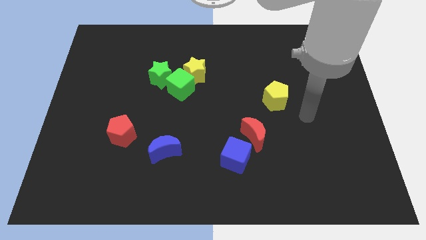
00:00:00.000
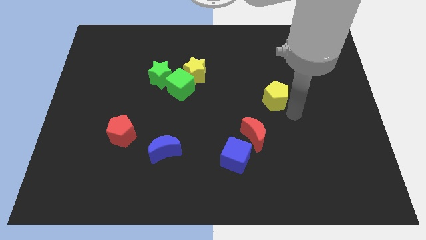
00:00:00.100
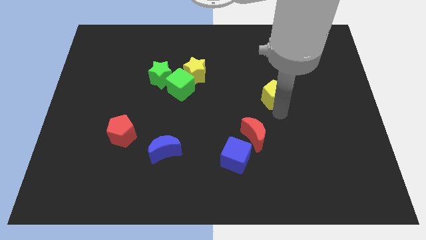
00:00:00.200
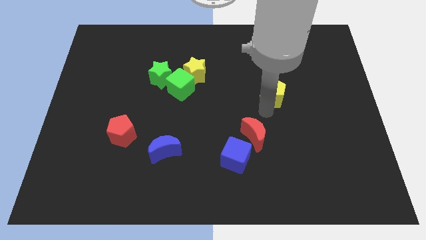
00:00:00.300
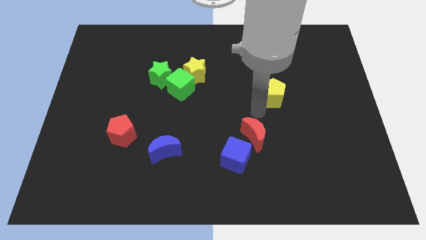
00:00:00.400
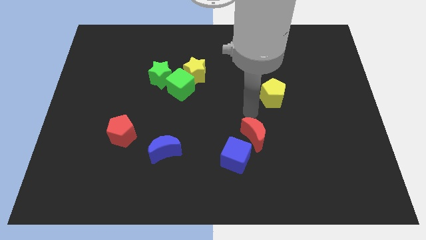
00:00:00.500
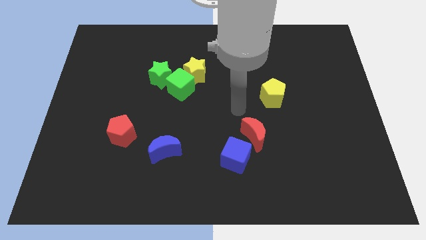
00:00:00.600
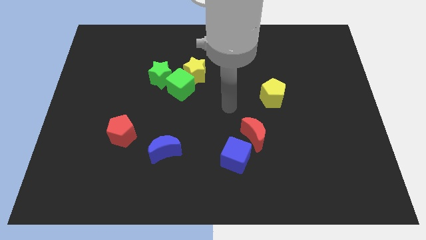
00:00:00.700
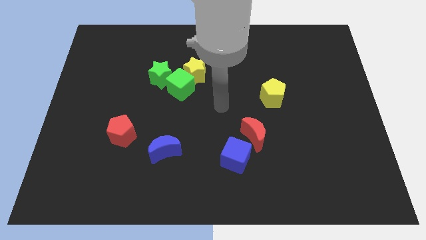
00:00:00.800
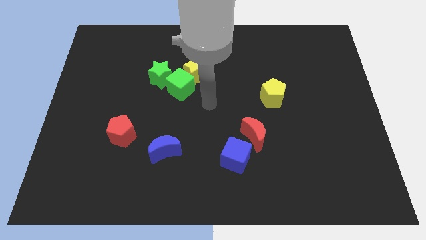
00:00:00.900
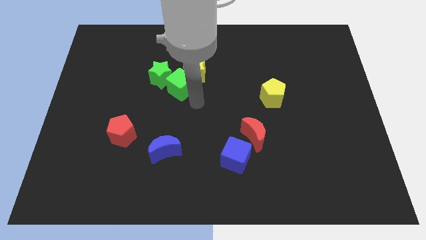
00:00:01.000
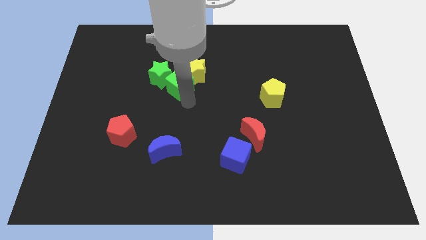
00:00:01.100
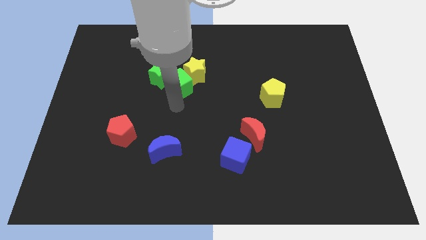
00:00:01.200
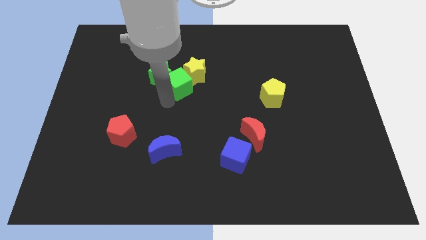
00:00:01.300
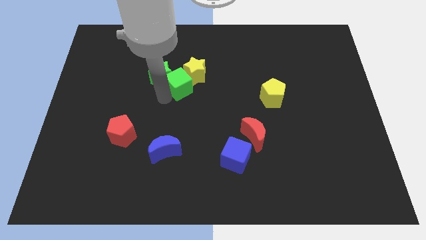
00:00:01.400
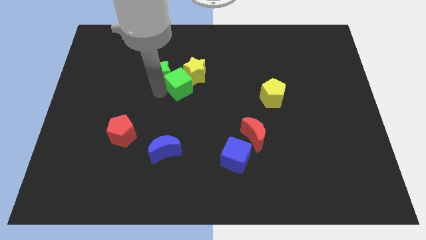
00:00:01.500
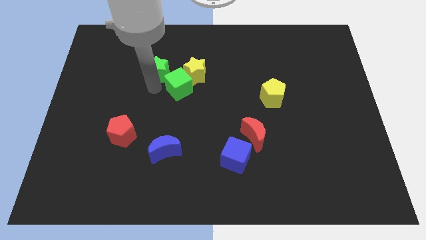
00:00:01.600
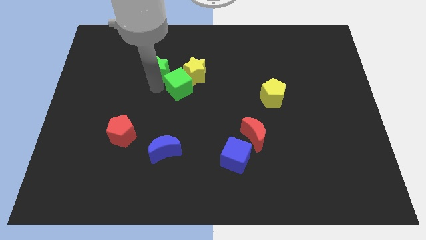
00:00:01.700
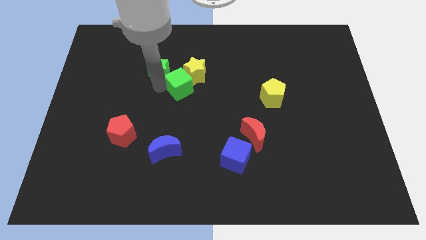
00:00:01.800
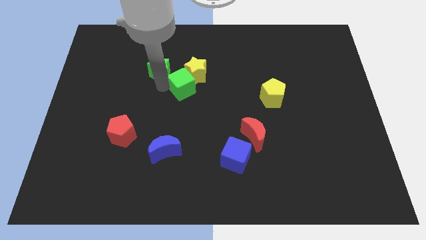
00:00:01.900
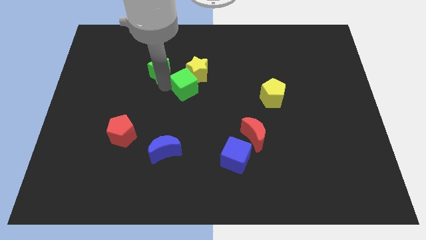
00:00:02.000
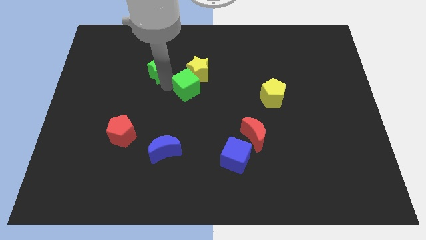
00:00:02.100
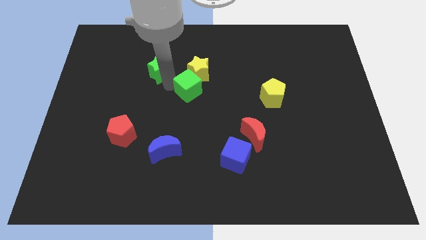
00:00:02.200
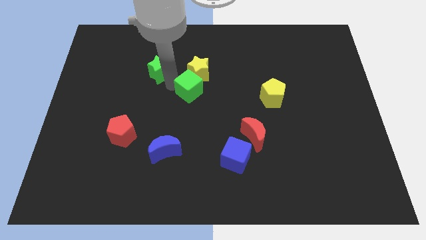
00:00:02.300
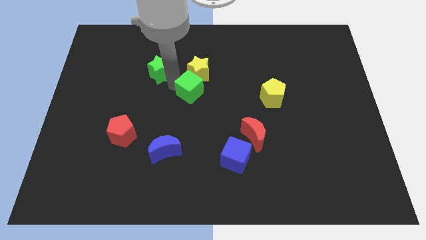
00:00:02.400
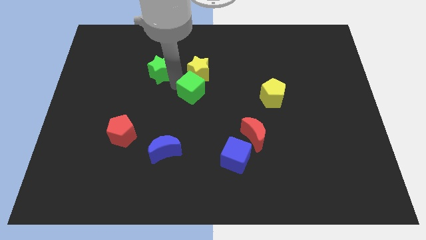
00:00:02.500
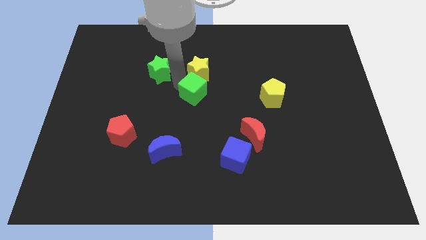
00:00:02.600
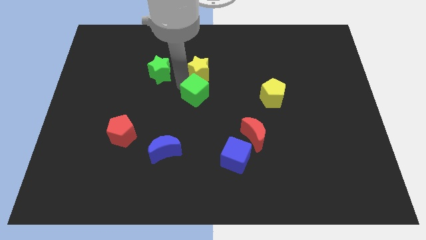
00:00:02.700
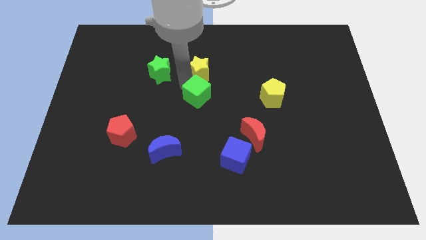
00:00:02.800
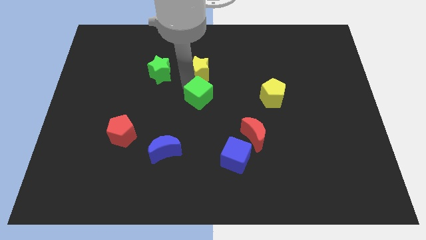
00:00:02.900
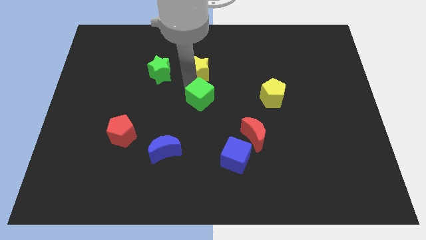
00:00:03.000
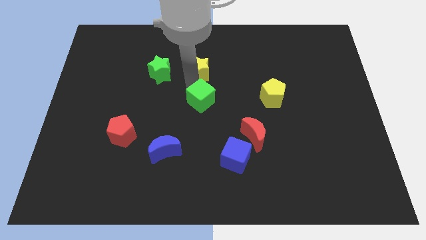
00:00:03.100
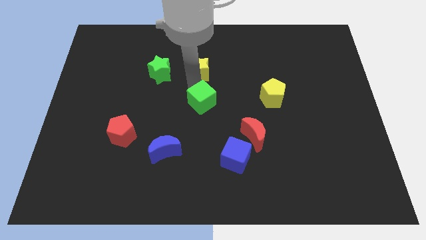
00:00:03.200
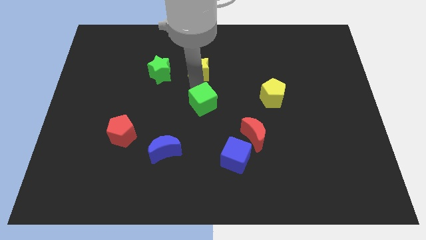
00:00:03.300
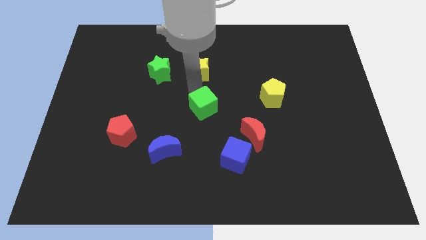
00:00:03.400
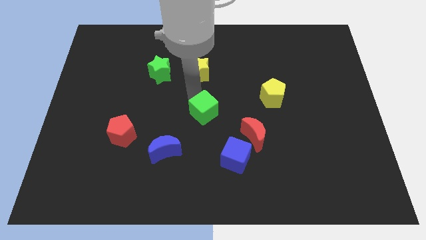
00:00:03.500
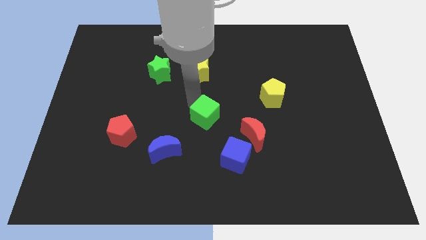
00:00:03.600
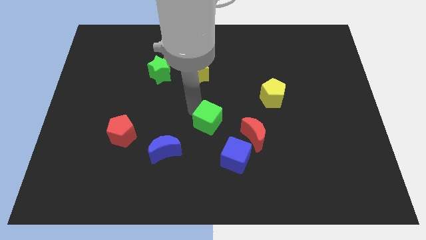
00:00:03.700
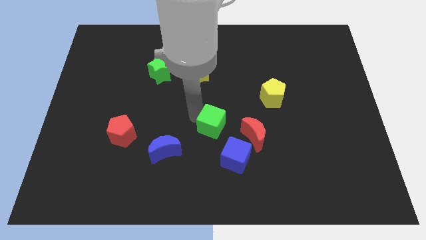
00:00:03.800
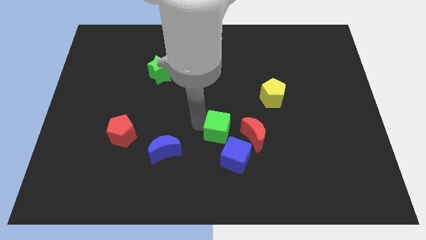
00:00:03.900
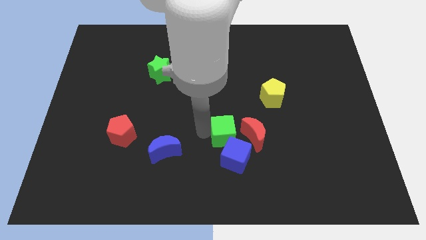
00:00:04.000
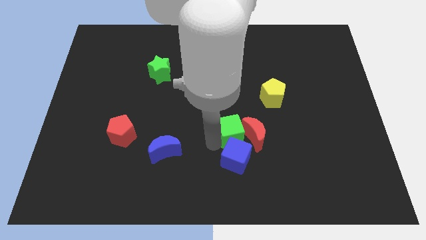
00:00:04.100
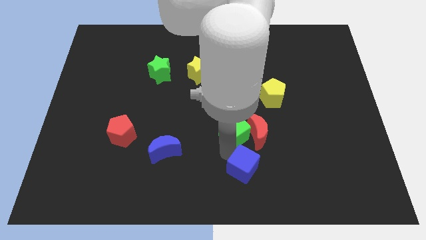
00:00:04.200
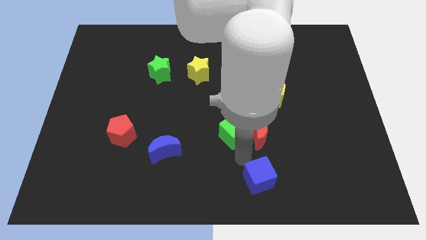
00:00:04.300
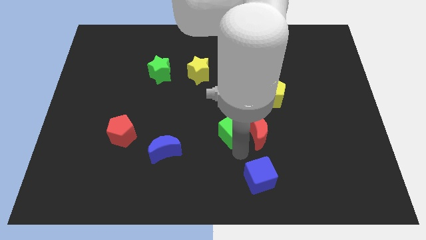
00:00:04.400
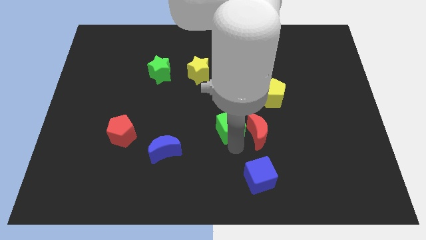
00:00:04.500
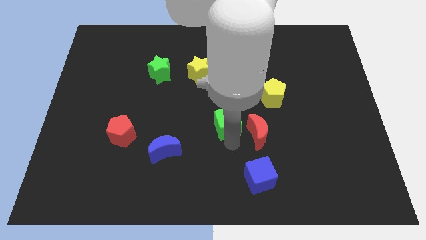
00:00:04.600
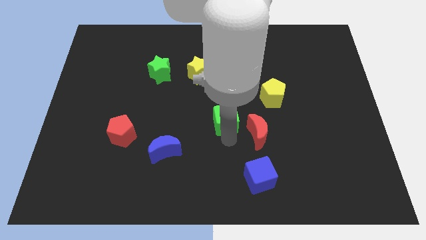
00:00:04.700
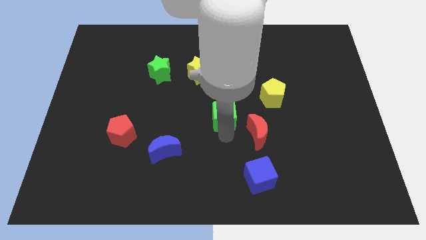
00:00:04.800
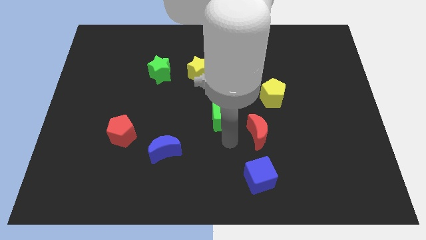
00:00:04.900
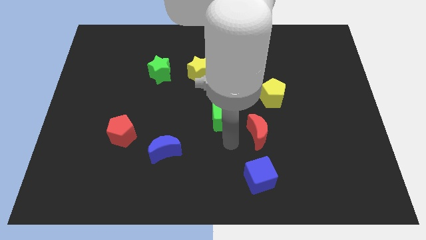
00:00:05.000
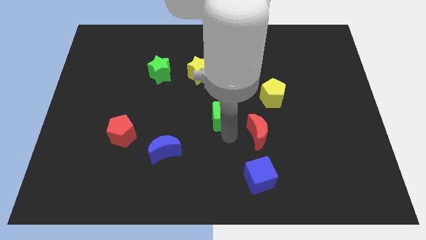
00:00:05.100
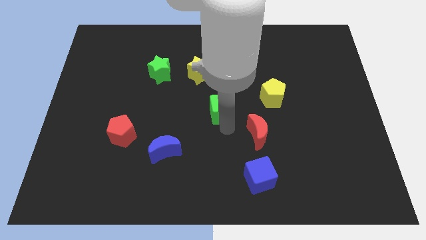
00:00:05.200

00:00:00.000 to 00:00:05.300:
slightly move the green cube to the right

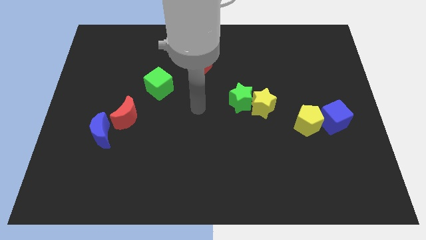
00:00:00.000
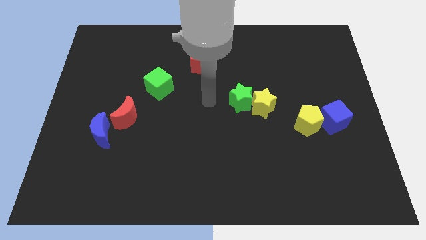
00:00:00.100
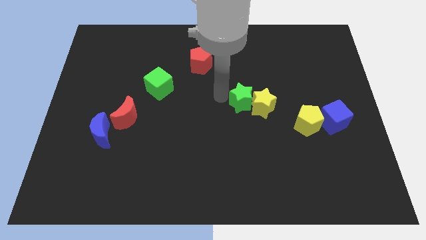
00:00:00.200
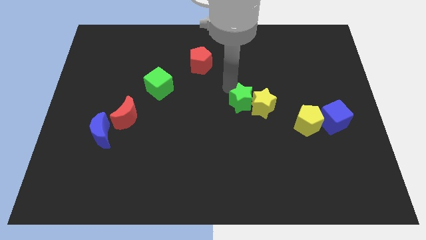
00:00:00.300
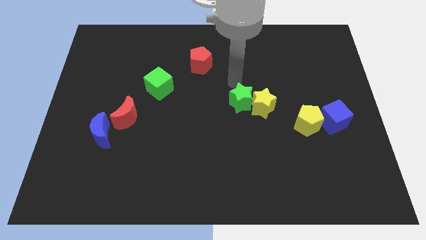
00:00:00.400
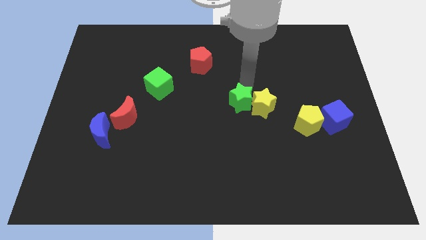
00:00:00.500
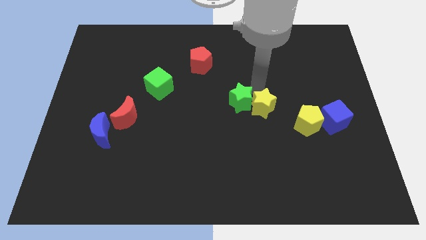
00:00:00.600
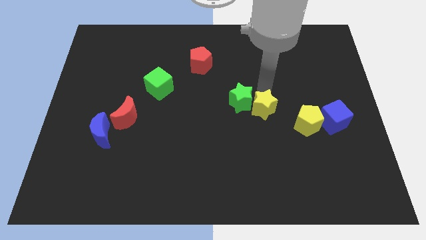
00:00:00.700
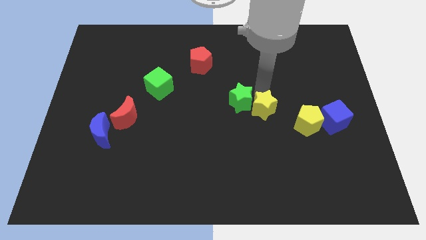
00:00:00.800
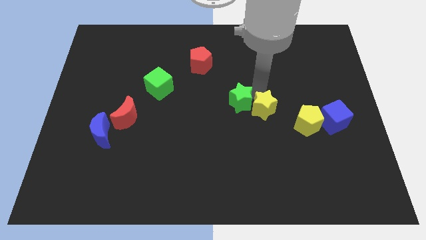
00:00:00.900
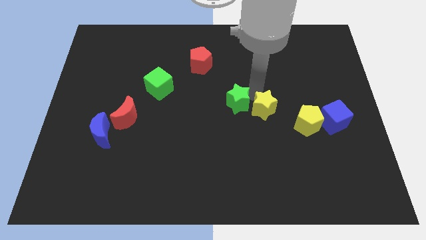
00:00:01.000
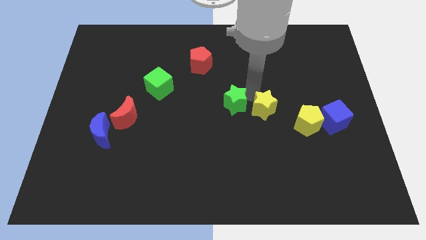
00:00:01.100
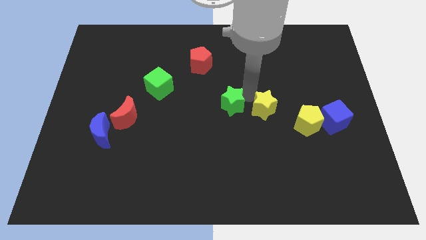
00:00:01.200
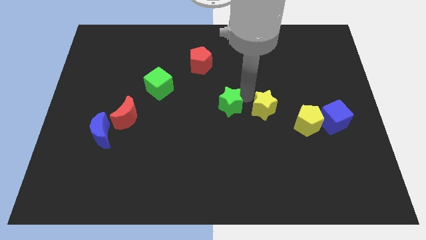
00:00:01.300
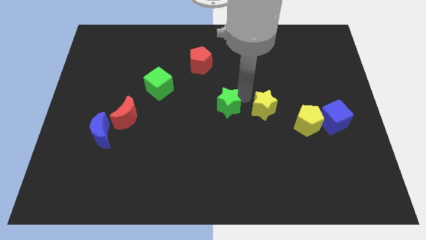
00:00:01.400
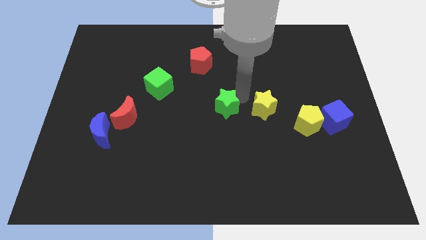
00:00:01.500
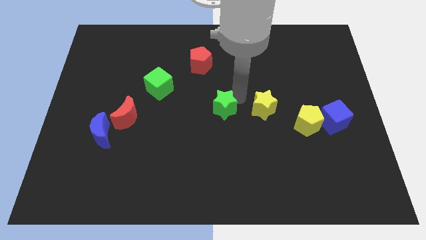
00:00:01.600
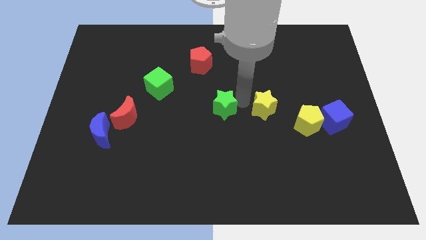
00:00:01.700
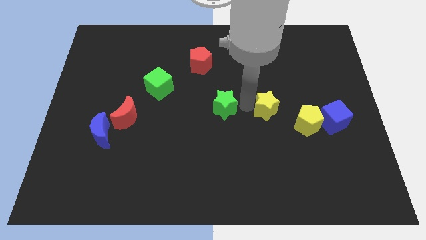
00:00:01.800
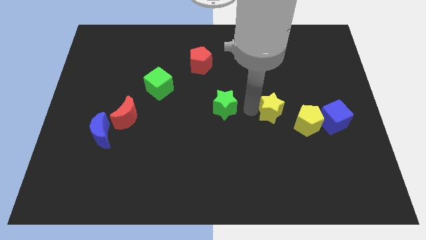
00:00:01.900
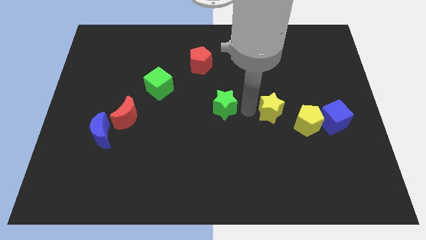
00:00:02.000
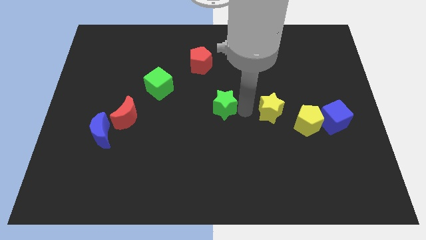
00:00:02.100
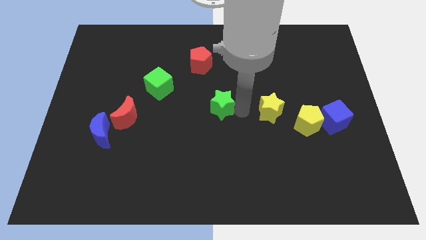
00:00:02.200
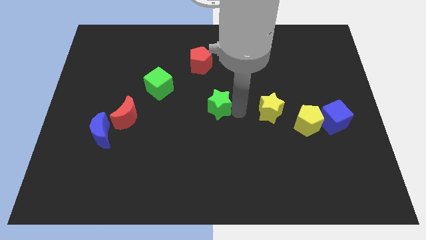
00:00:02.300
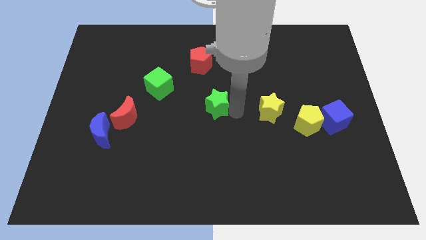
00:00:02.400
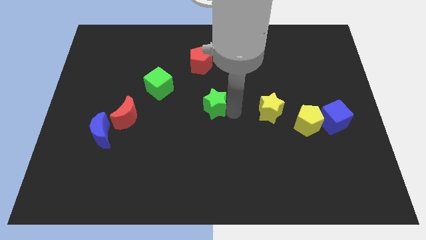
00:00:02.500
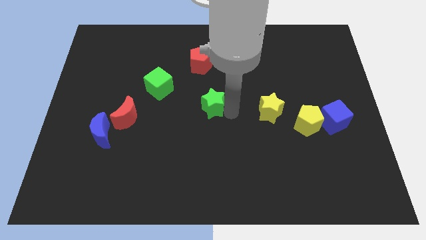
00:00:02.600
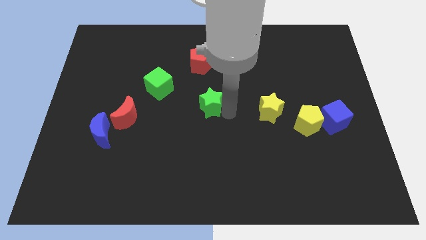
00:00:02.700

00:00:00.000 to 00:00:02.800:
slide the green star left somewhat
